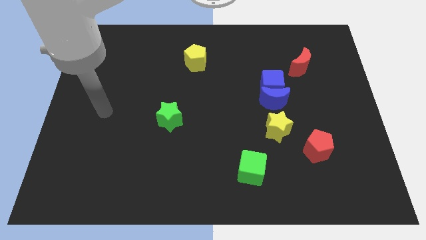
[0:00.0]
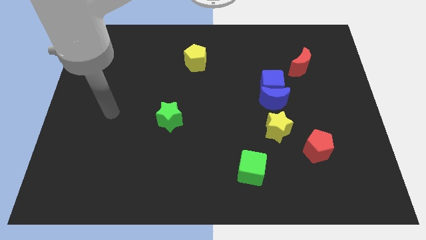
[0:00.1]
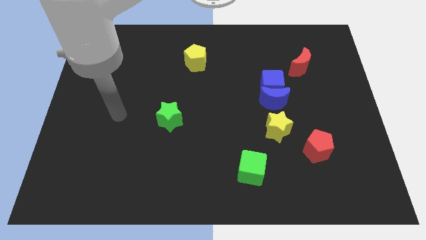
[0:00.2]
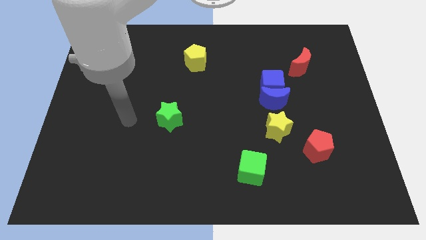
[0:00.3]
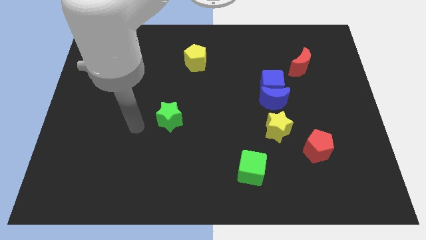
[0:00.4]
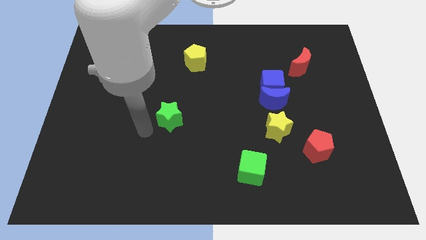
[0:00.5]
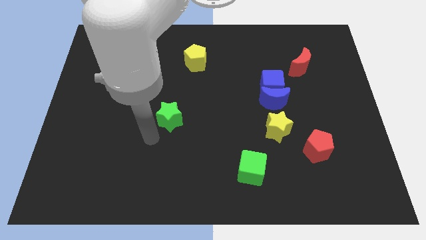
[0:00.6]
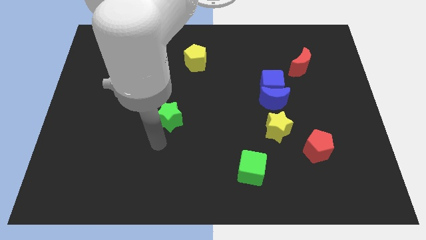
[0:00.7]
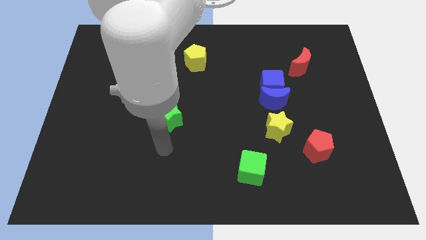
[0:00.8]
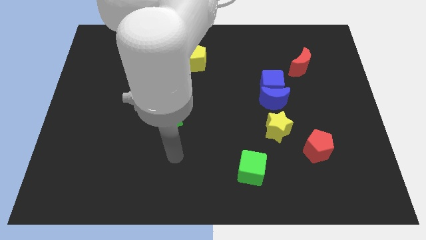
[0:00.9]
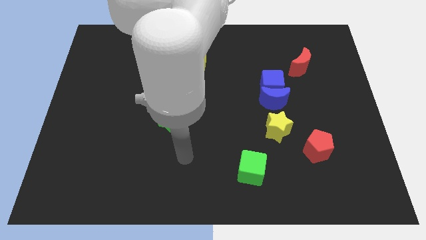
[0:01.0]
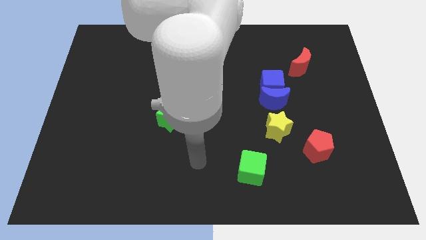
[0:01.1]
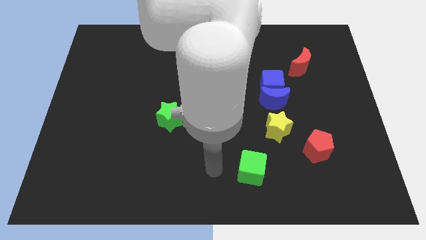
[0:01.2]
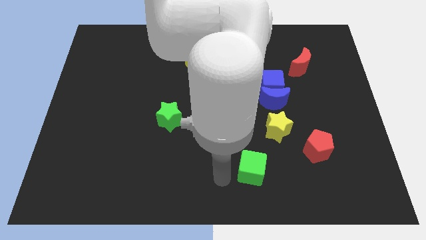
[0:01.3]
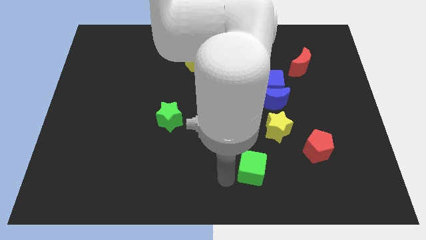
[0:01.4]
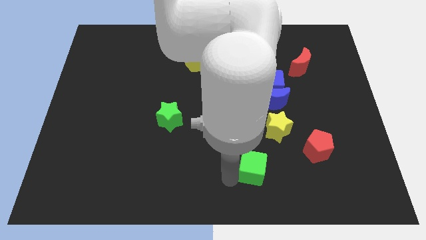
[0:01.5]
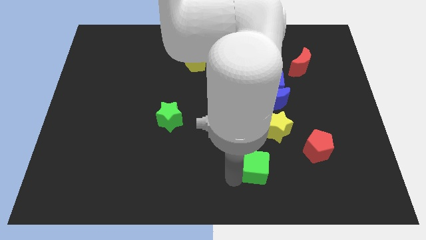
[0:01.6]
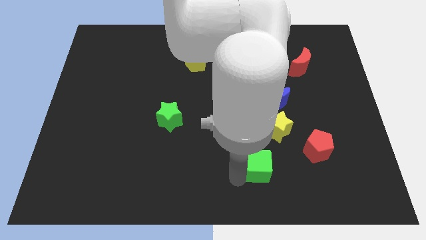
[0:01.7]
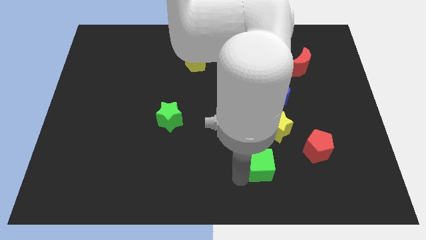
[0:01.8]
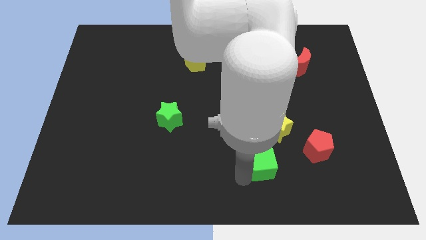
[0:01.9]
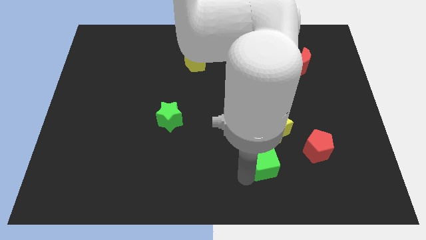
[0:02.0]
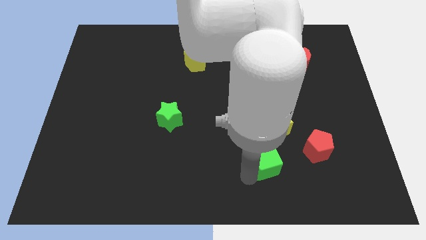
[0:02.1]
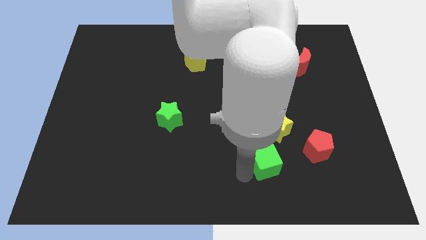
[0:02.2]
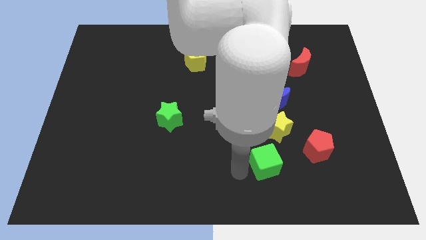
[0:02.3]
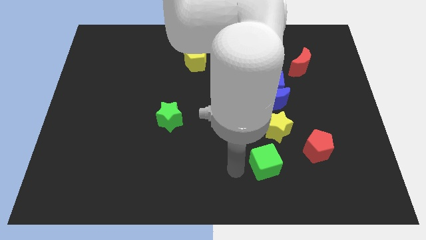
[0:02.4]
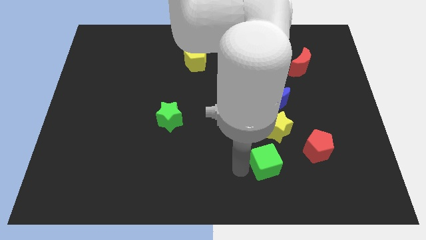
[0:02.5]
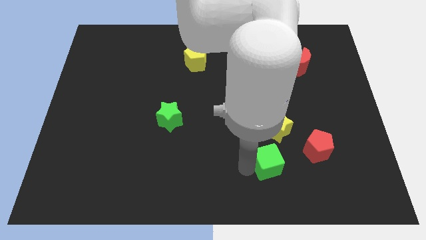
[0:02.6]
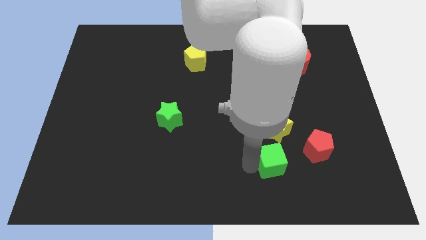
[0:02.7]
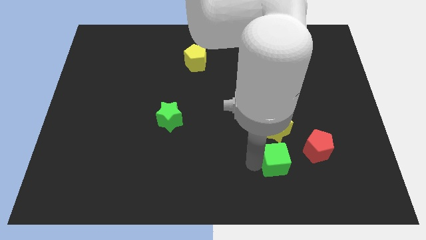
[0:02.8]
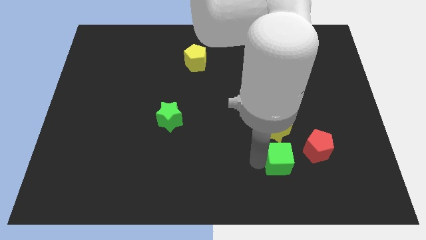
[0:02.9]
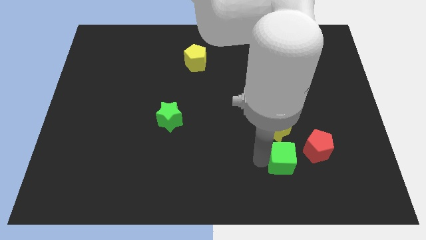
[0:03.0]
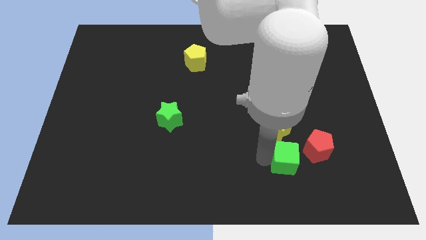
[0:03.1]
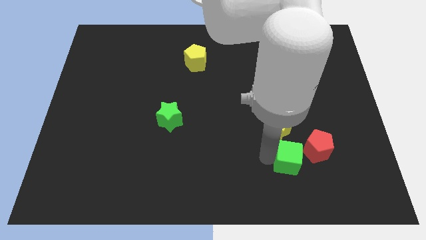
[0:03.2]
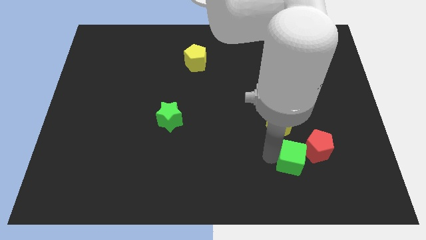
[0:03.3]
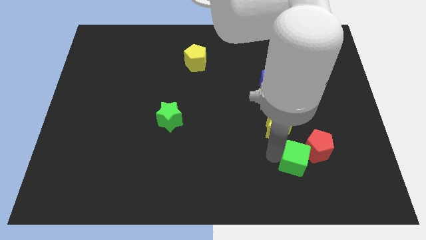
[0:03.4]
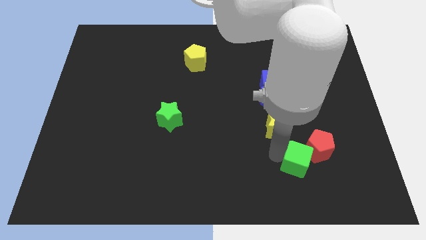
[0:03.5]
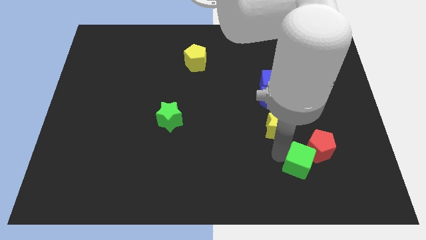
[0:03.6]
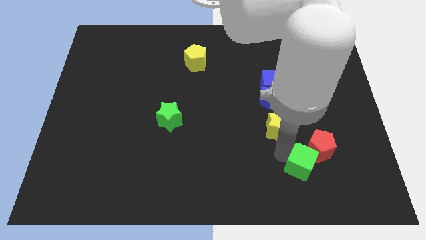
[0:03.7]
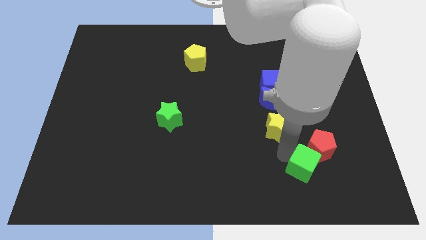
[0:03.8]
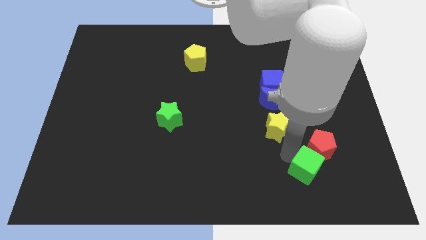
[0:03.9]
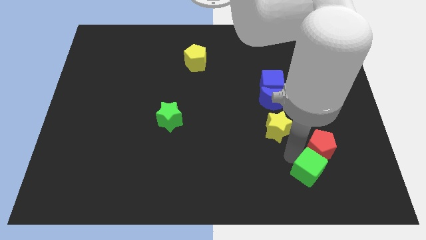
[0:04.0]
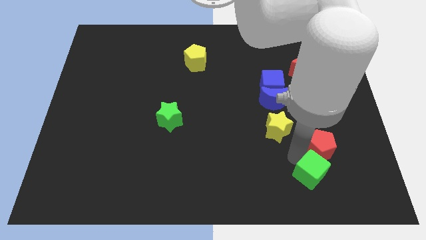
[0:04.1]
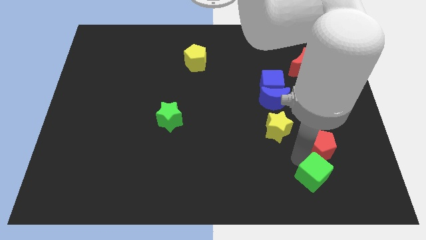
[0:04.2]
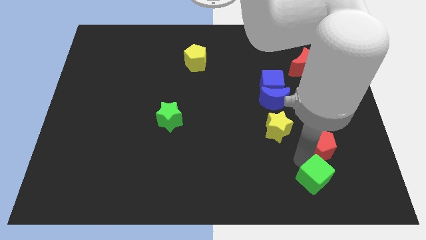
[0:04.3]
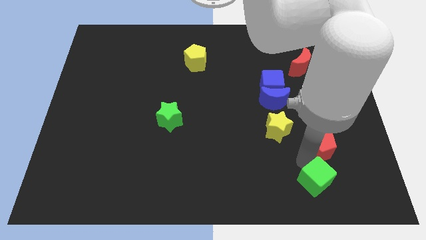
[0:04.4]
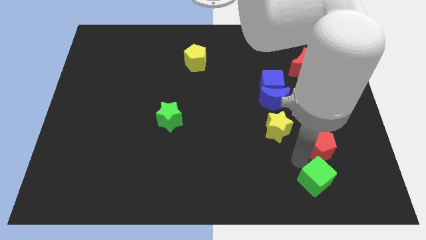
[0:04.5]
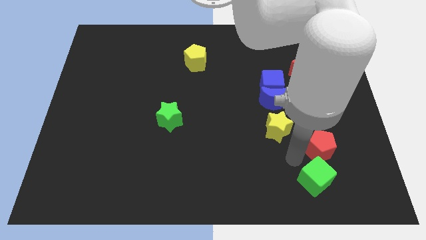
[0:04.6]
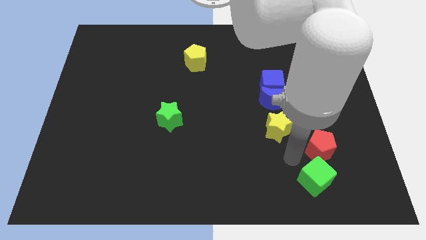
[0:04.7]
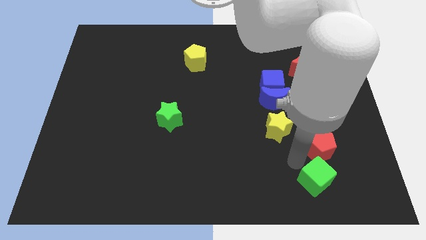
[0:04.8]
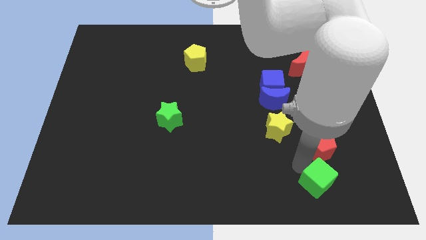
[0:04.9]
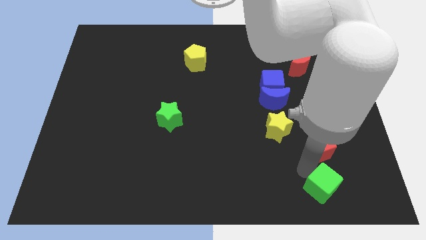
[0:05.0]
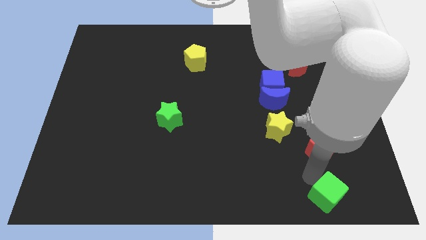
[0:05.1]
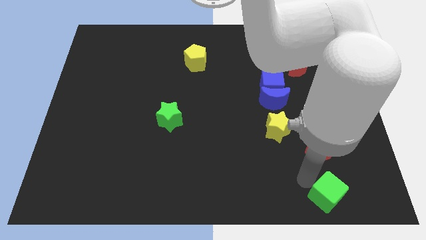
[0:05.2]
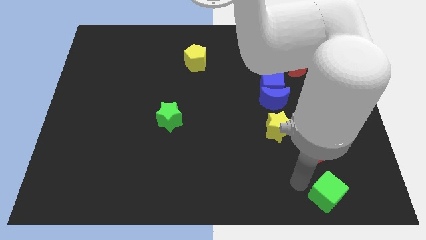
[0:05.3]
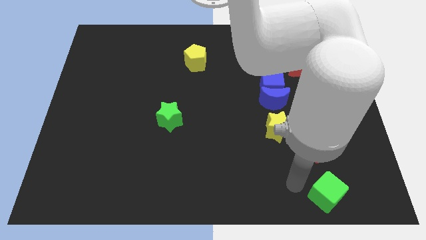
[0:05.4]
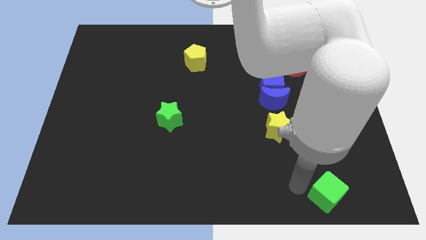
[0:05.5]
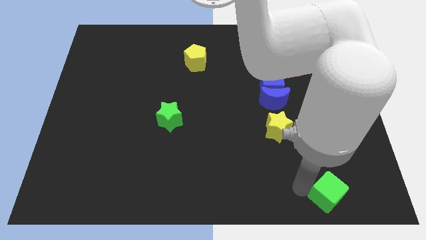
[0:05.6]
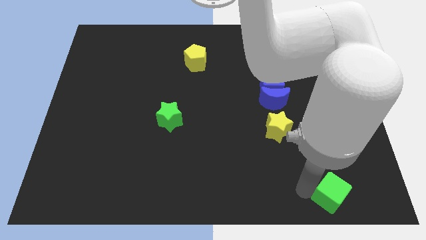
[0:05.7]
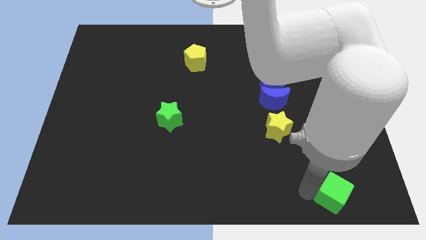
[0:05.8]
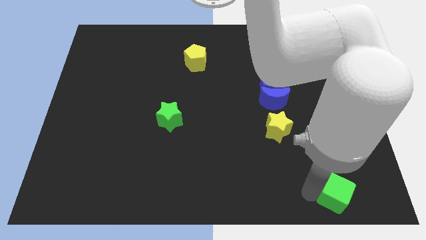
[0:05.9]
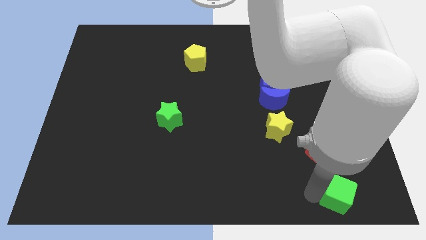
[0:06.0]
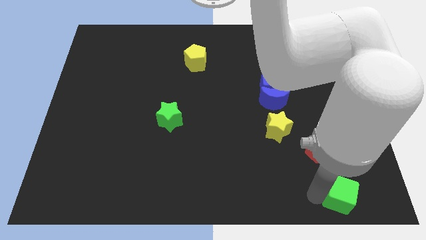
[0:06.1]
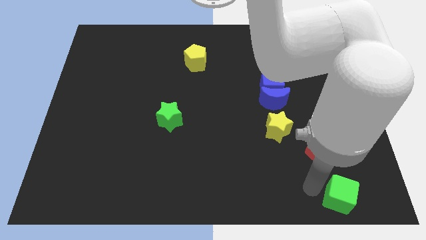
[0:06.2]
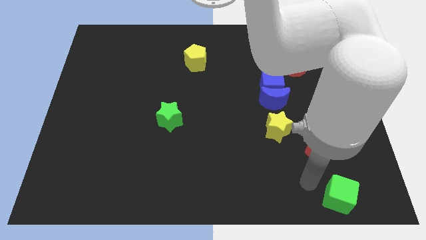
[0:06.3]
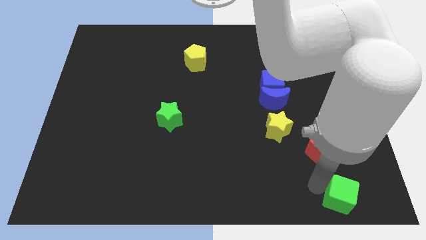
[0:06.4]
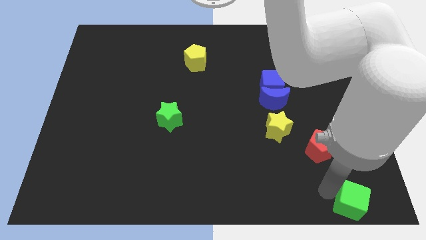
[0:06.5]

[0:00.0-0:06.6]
move the green cube to the lower right corner
